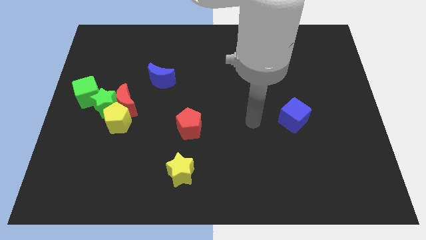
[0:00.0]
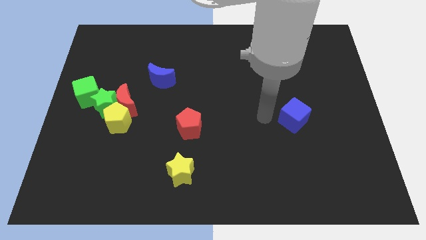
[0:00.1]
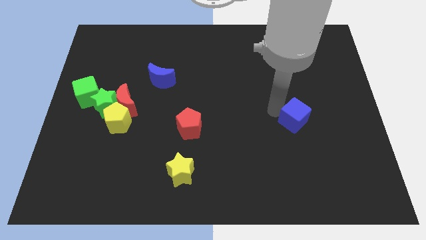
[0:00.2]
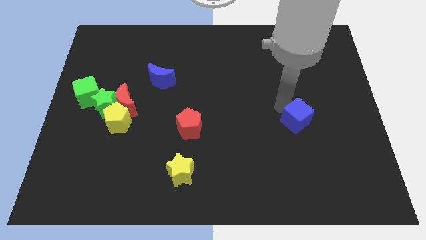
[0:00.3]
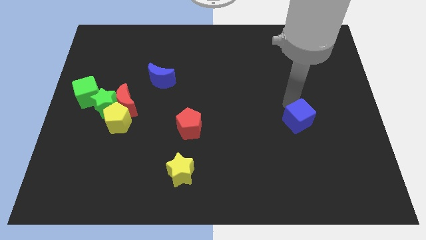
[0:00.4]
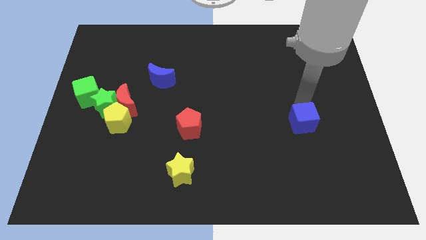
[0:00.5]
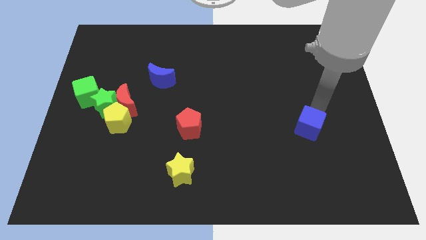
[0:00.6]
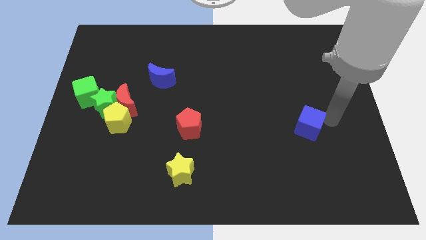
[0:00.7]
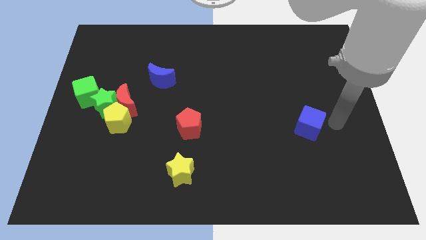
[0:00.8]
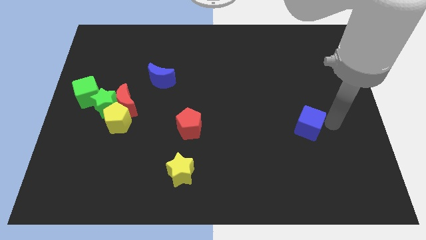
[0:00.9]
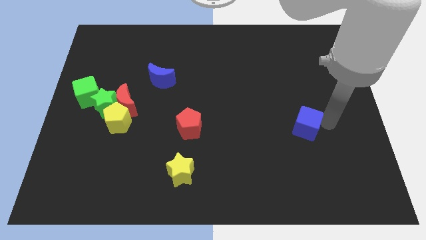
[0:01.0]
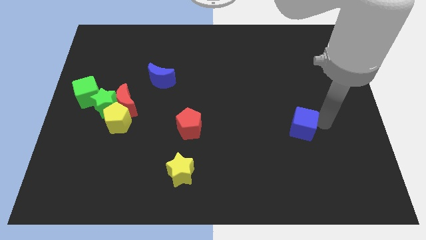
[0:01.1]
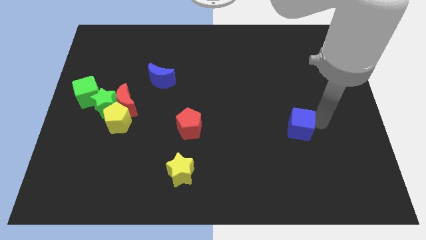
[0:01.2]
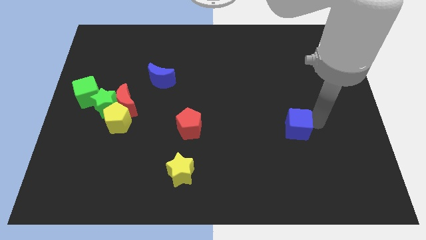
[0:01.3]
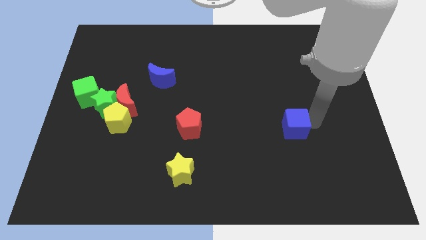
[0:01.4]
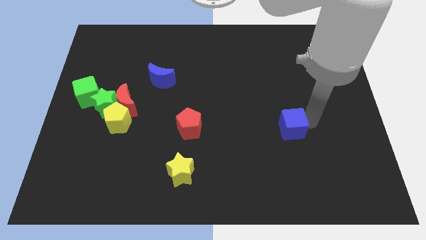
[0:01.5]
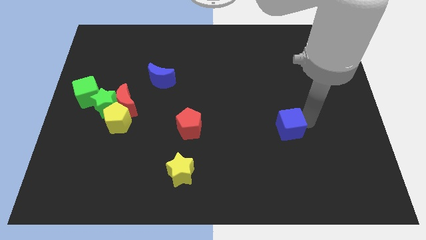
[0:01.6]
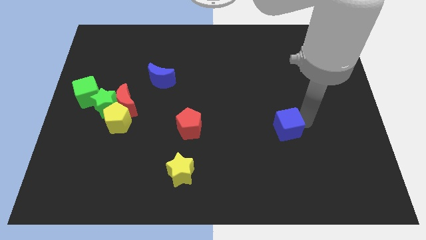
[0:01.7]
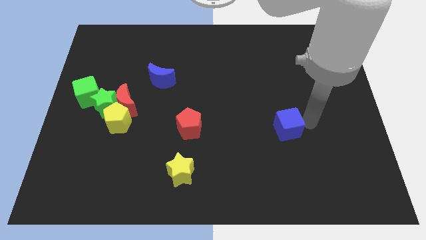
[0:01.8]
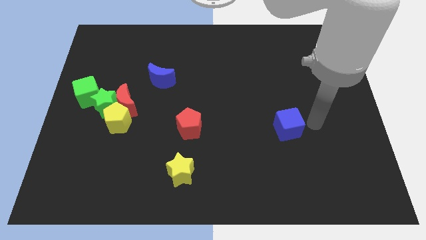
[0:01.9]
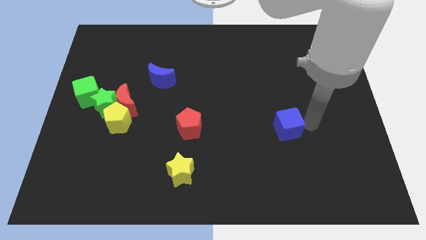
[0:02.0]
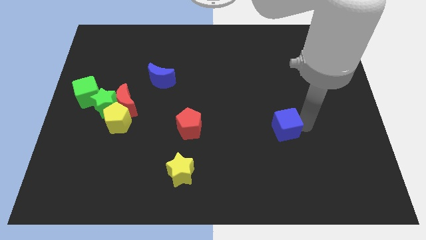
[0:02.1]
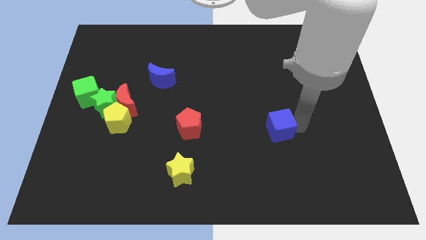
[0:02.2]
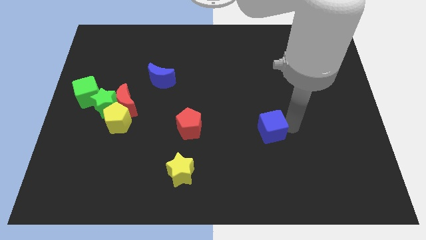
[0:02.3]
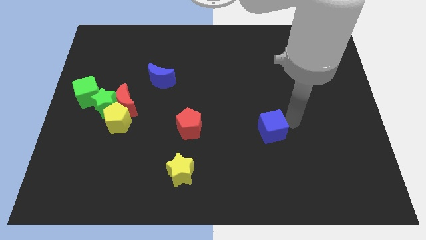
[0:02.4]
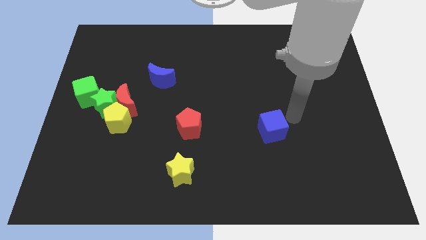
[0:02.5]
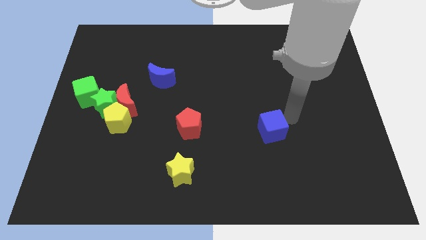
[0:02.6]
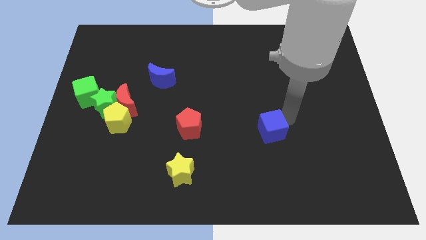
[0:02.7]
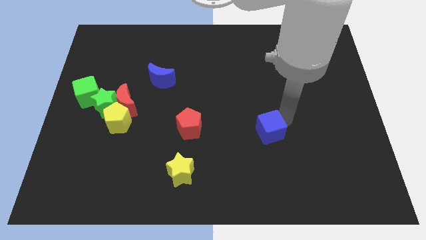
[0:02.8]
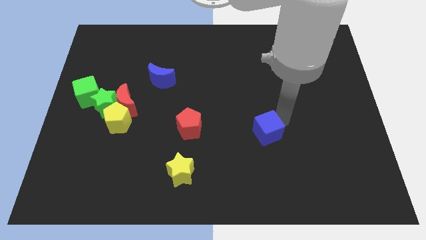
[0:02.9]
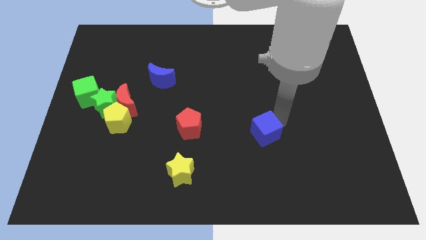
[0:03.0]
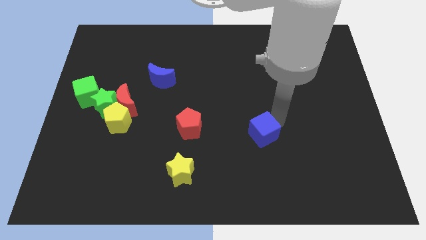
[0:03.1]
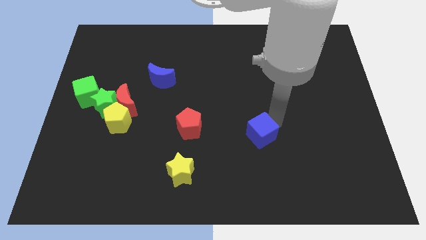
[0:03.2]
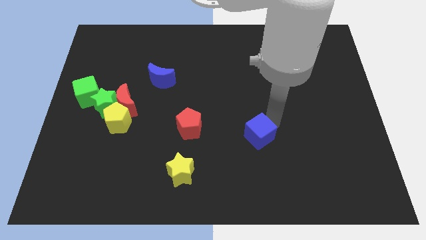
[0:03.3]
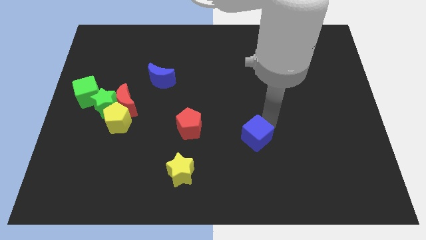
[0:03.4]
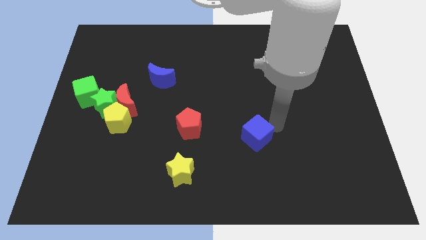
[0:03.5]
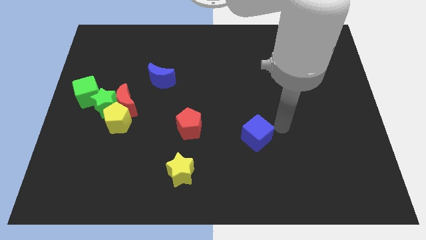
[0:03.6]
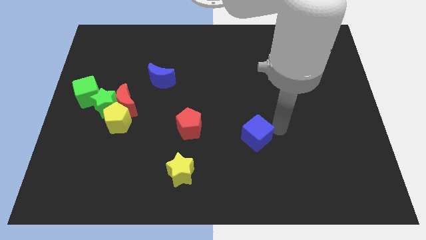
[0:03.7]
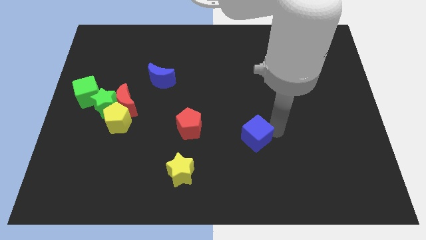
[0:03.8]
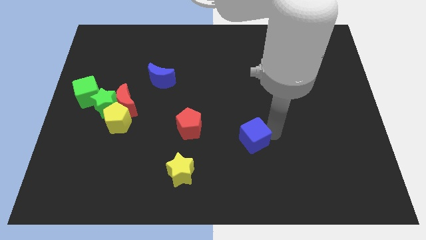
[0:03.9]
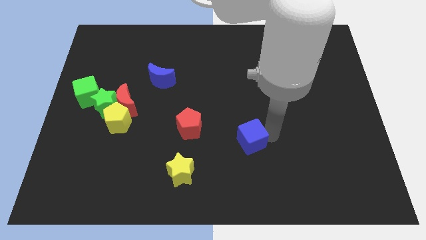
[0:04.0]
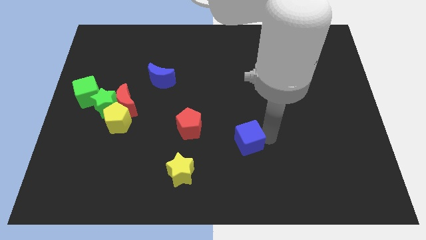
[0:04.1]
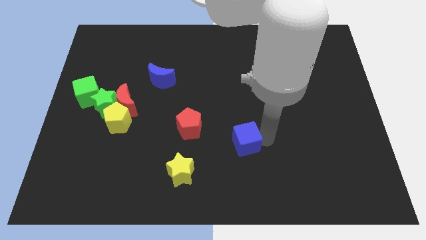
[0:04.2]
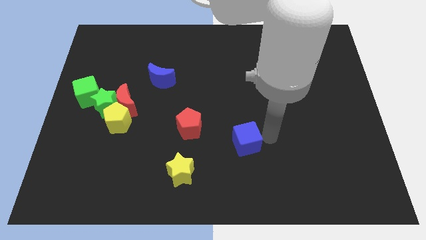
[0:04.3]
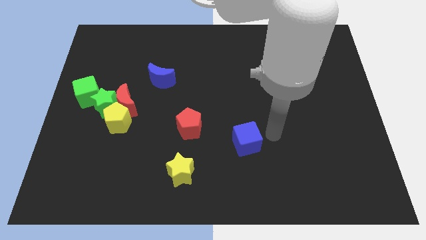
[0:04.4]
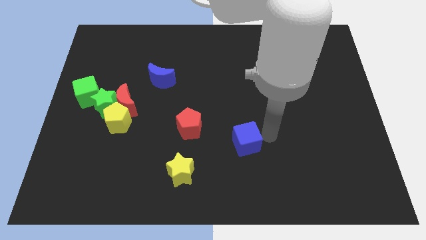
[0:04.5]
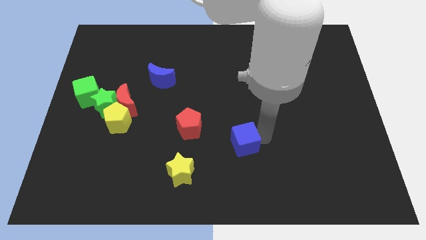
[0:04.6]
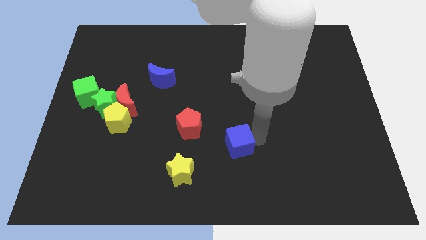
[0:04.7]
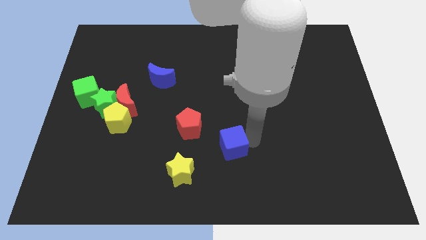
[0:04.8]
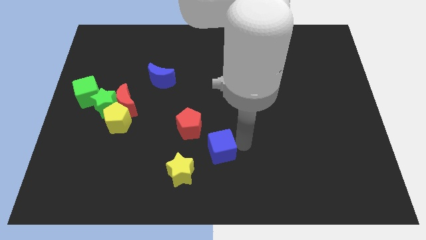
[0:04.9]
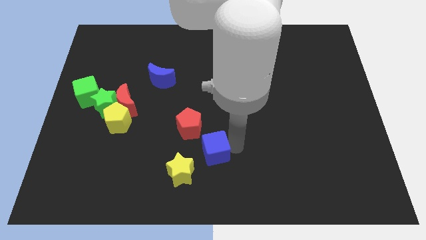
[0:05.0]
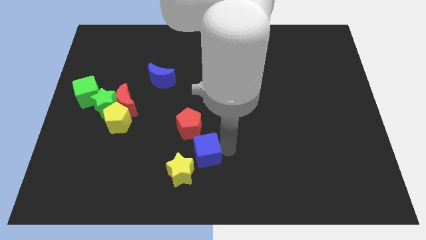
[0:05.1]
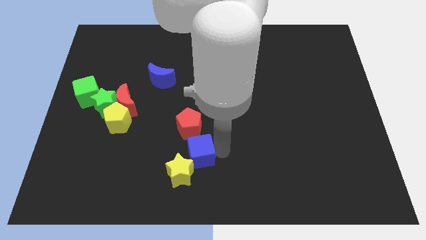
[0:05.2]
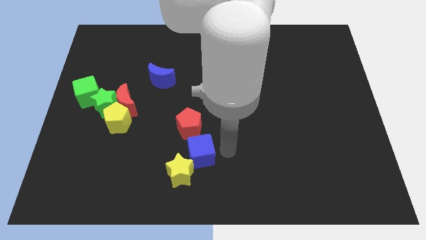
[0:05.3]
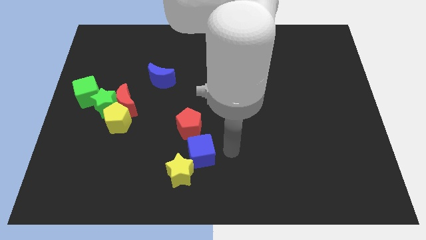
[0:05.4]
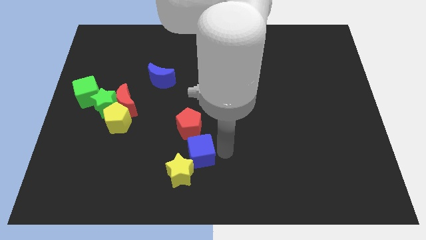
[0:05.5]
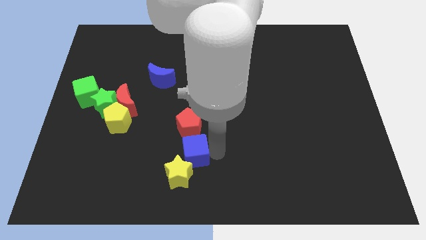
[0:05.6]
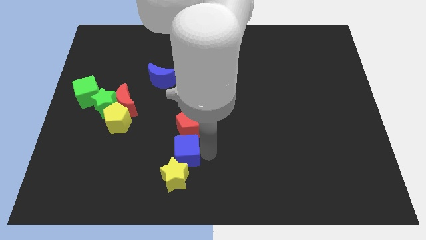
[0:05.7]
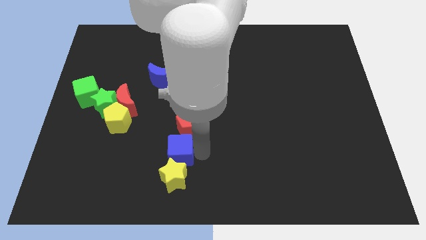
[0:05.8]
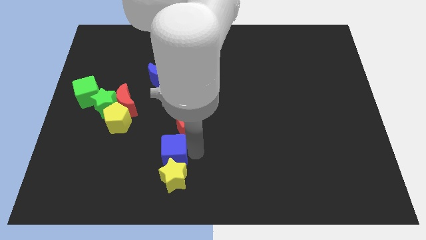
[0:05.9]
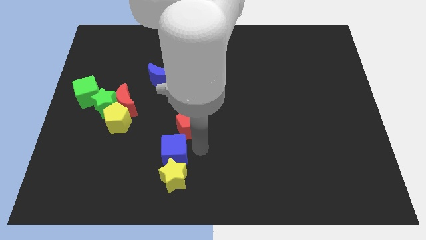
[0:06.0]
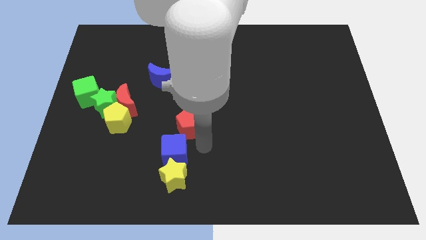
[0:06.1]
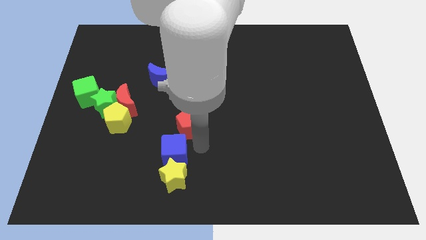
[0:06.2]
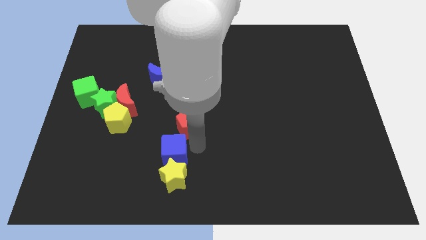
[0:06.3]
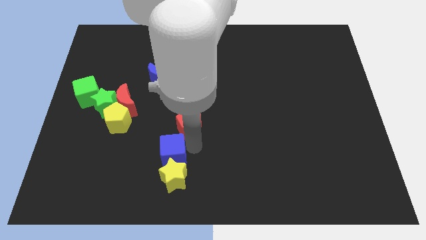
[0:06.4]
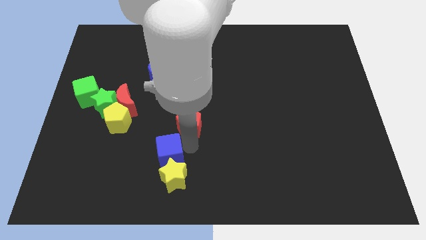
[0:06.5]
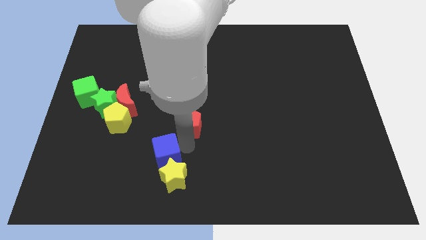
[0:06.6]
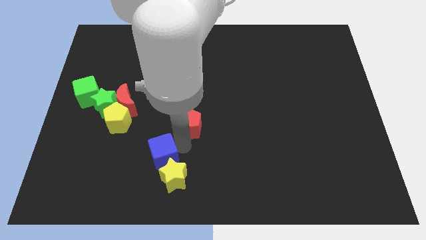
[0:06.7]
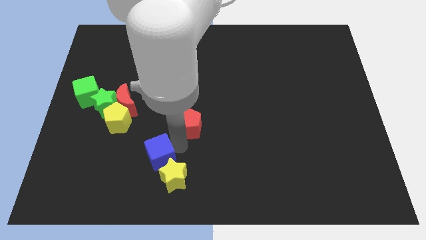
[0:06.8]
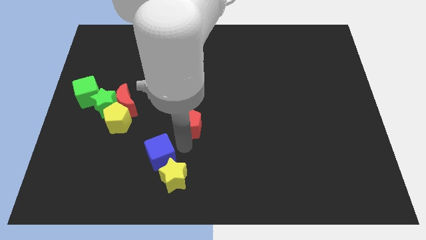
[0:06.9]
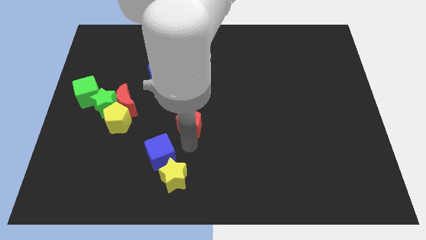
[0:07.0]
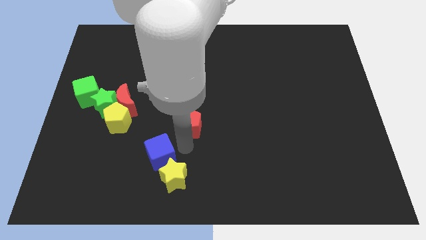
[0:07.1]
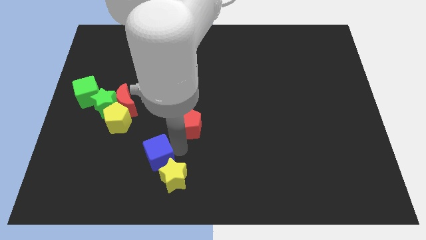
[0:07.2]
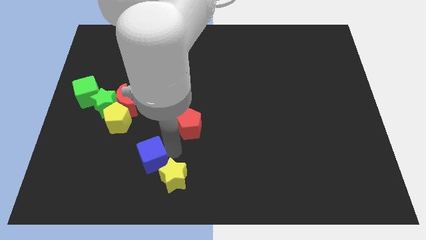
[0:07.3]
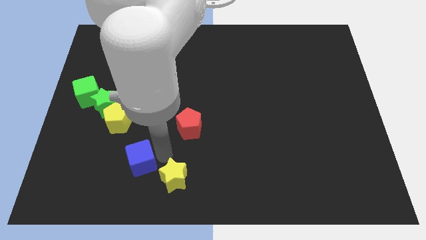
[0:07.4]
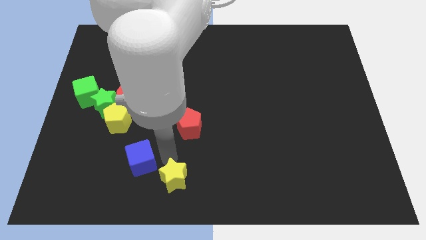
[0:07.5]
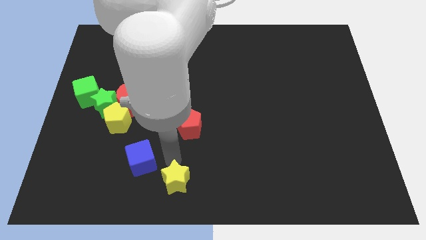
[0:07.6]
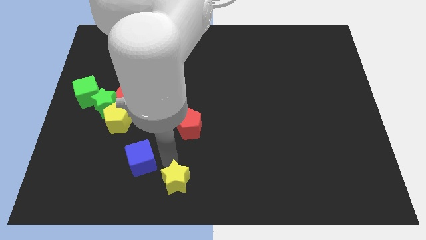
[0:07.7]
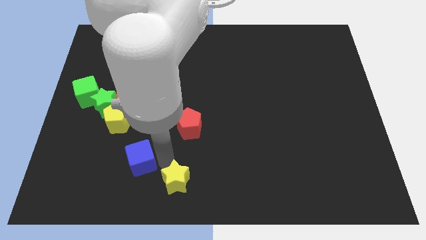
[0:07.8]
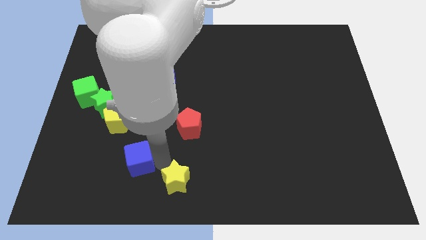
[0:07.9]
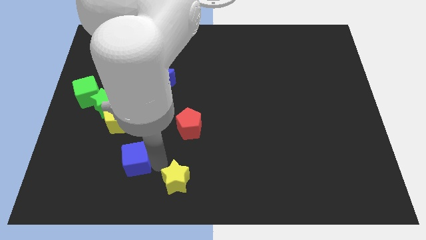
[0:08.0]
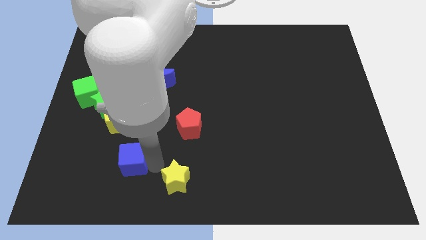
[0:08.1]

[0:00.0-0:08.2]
move the blue cube to the bottom of the yellow pentagon
